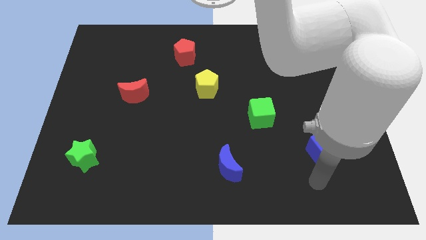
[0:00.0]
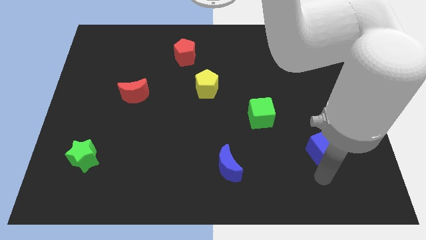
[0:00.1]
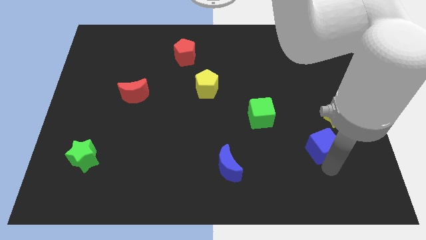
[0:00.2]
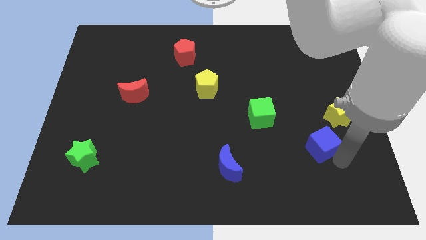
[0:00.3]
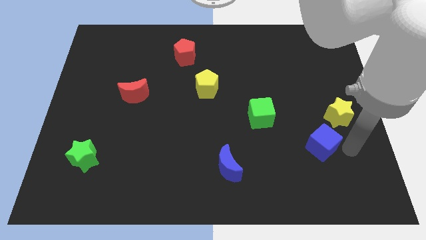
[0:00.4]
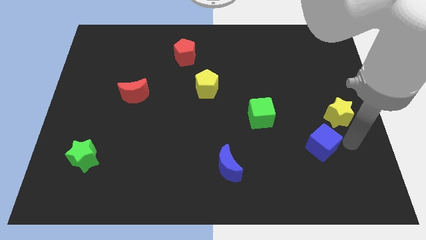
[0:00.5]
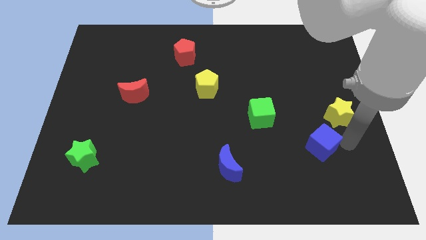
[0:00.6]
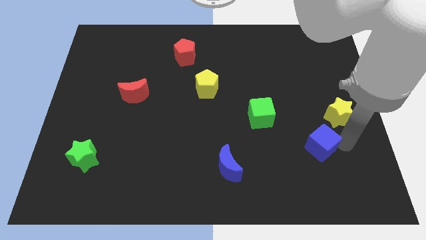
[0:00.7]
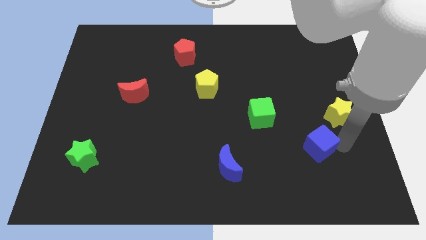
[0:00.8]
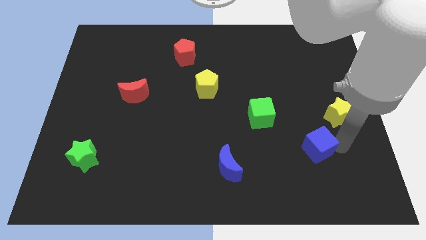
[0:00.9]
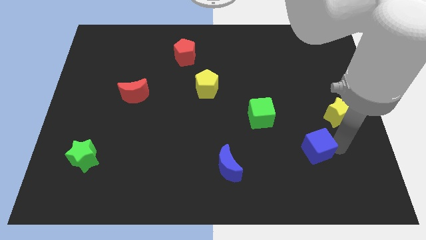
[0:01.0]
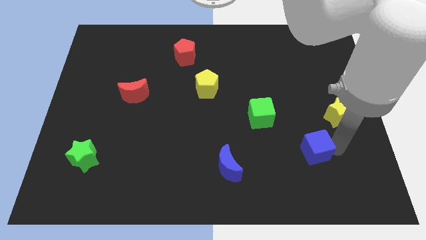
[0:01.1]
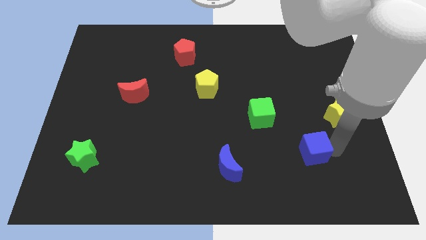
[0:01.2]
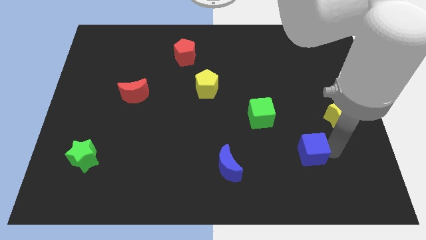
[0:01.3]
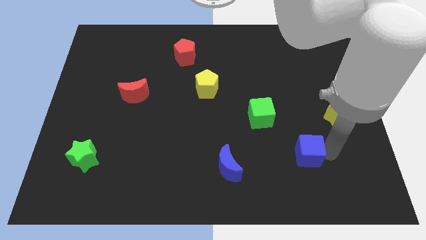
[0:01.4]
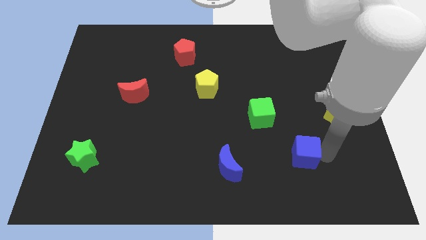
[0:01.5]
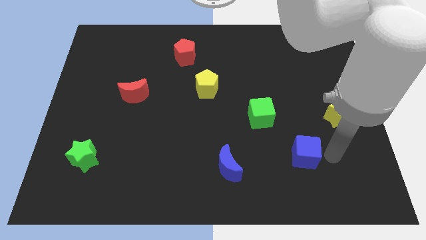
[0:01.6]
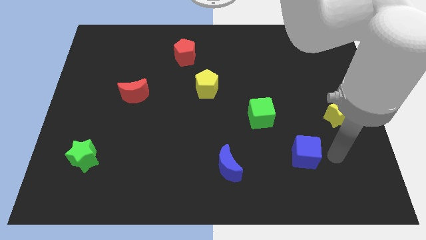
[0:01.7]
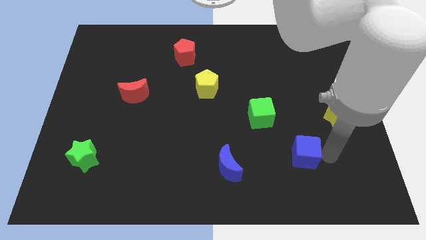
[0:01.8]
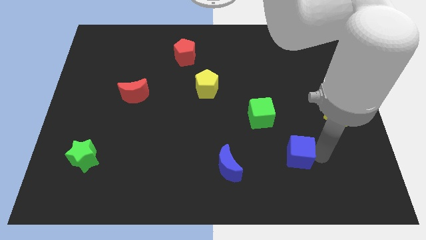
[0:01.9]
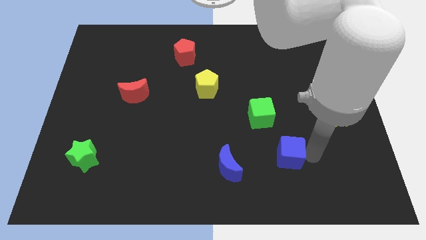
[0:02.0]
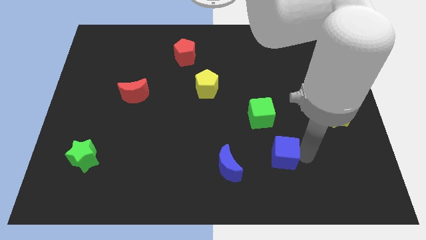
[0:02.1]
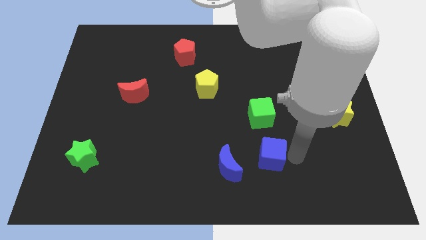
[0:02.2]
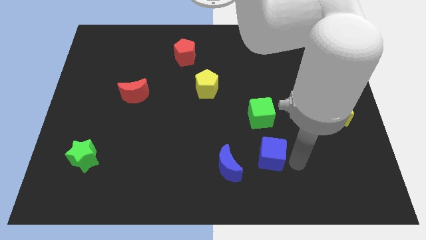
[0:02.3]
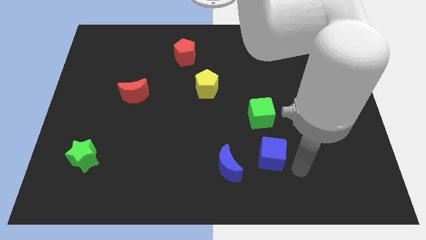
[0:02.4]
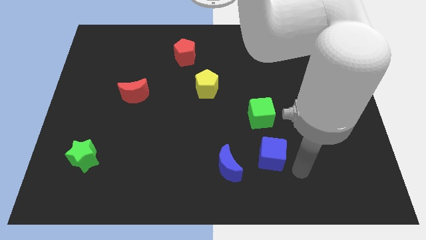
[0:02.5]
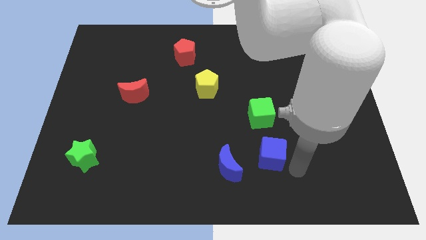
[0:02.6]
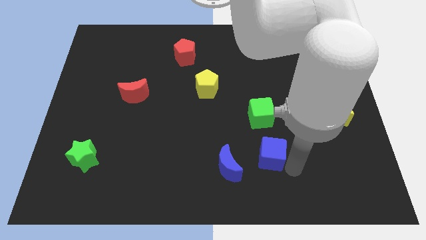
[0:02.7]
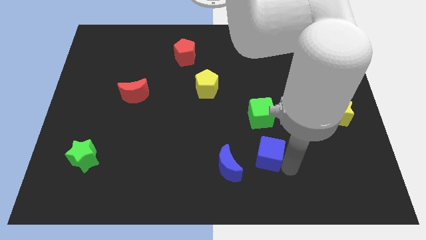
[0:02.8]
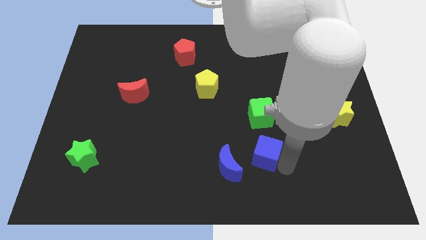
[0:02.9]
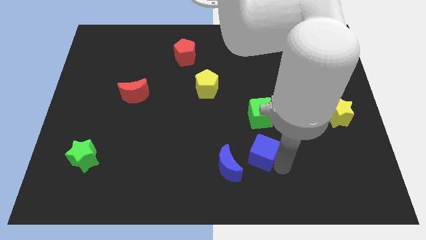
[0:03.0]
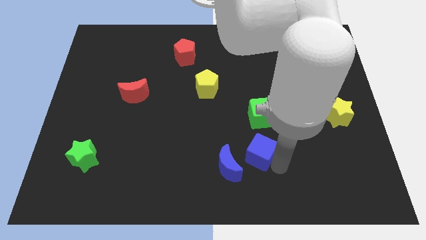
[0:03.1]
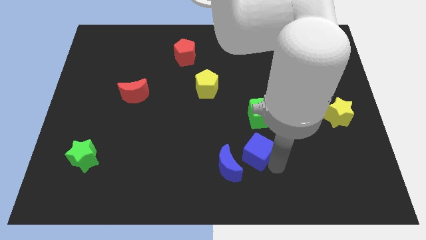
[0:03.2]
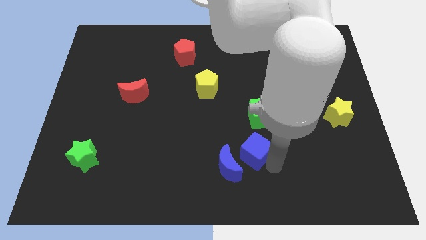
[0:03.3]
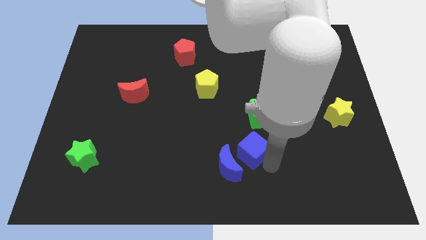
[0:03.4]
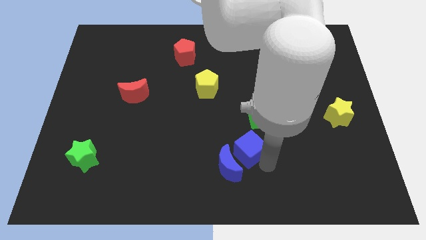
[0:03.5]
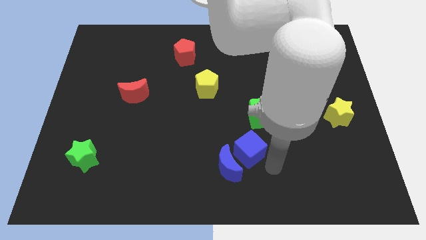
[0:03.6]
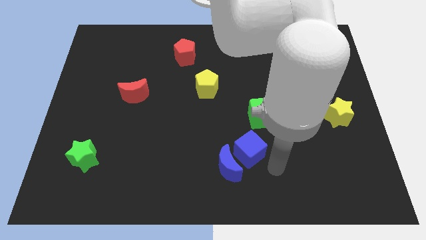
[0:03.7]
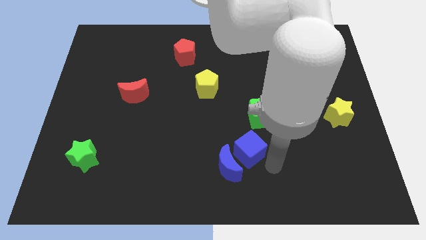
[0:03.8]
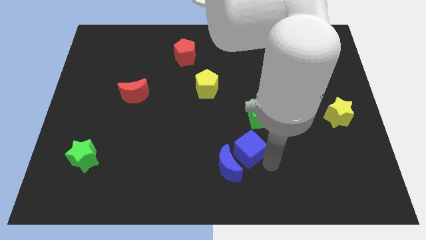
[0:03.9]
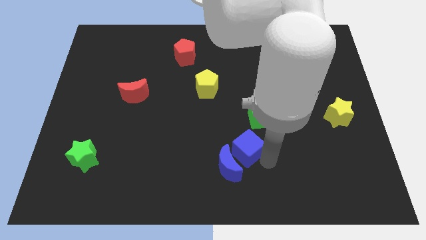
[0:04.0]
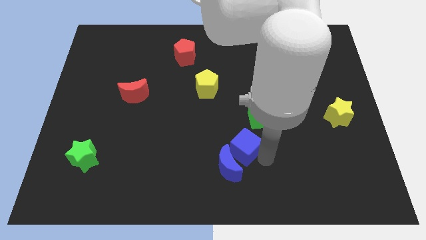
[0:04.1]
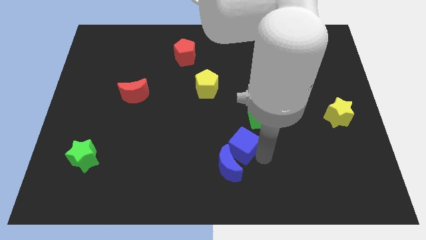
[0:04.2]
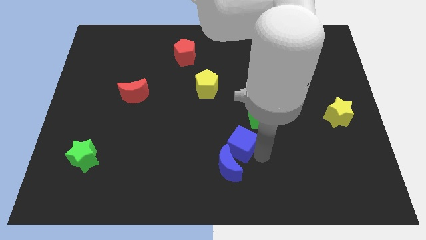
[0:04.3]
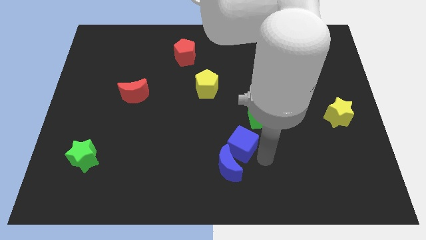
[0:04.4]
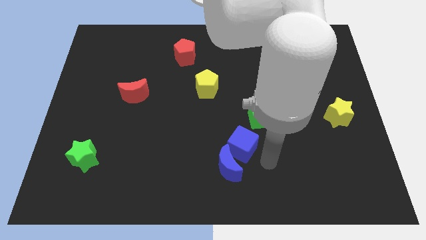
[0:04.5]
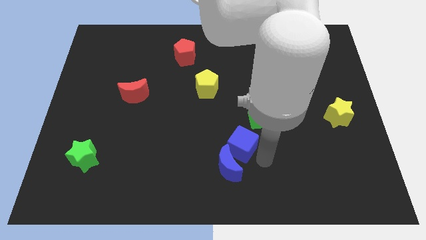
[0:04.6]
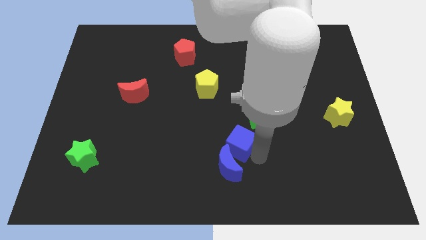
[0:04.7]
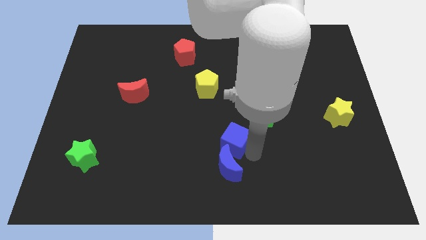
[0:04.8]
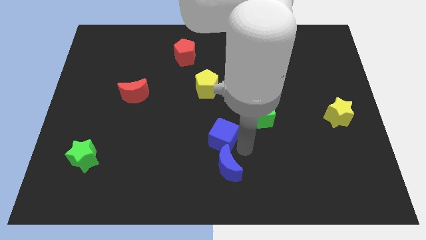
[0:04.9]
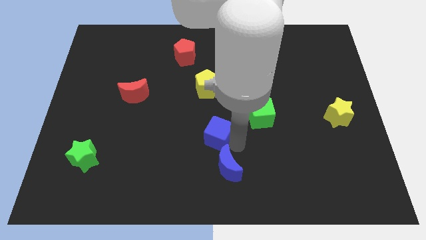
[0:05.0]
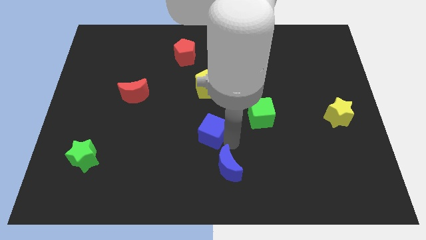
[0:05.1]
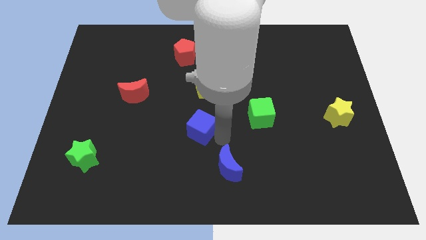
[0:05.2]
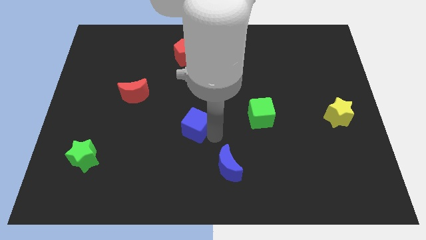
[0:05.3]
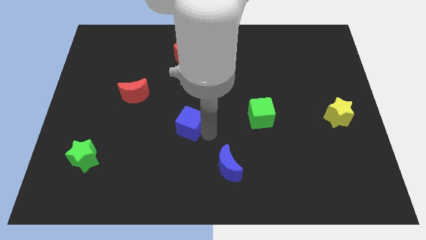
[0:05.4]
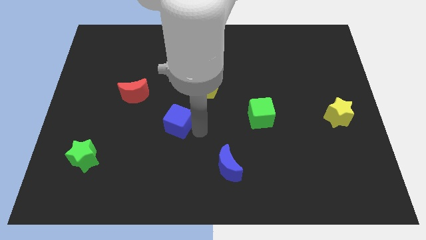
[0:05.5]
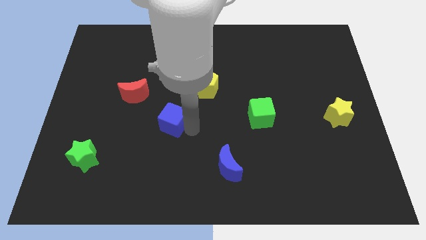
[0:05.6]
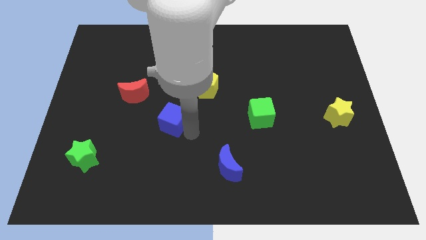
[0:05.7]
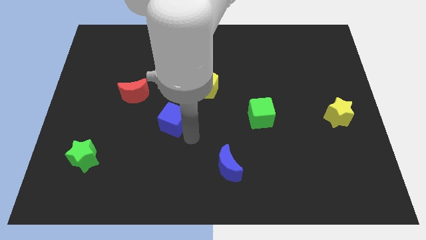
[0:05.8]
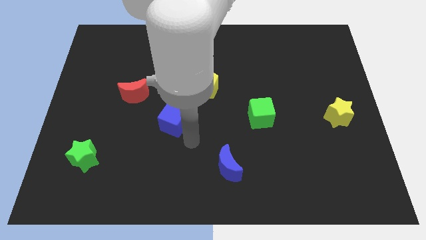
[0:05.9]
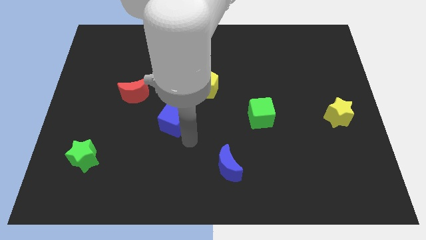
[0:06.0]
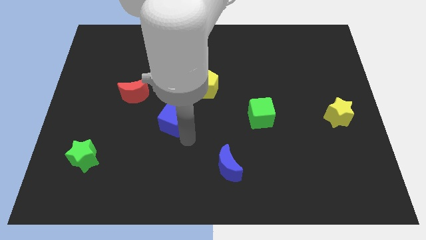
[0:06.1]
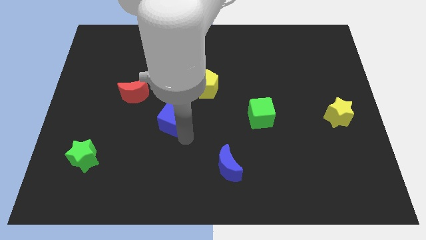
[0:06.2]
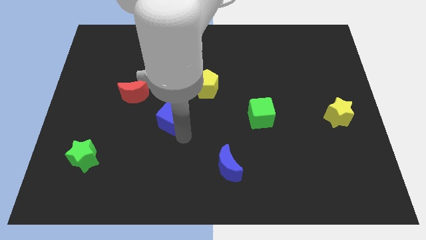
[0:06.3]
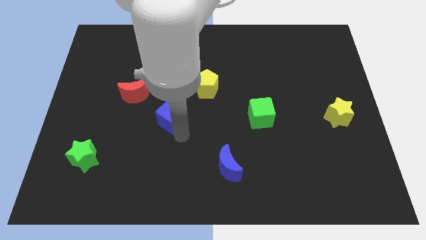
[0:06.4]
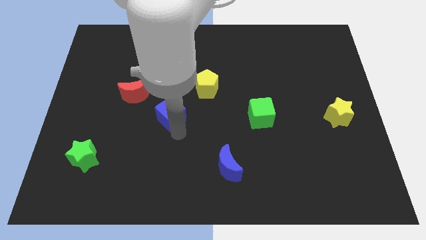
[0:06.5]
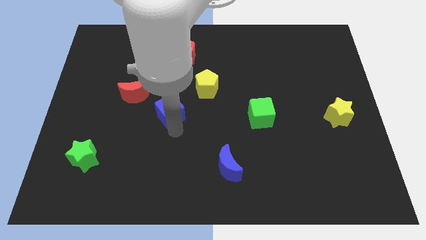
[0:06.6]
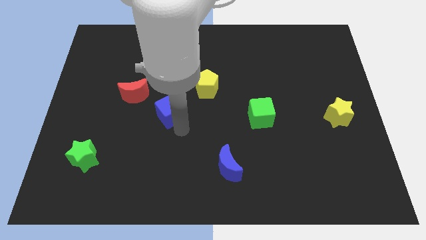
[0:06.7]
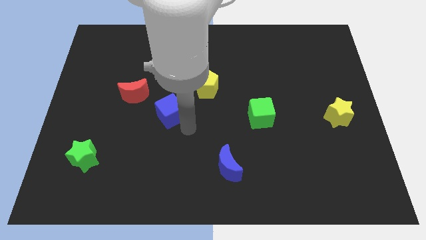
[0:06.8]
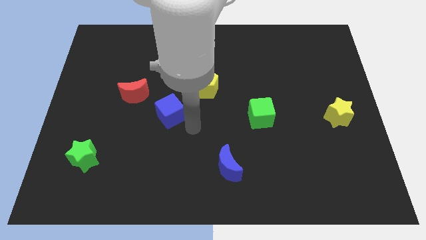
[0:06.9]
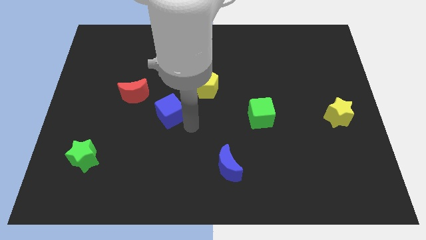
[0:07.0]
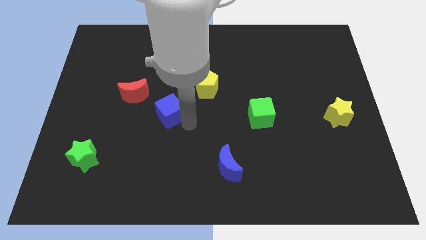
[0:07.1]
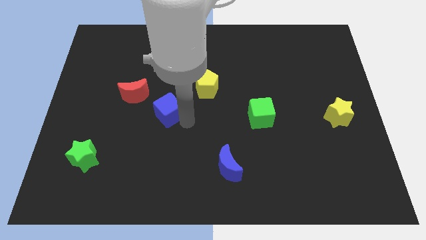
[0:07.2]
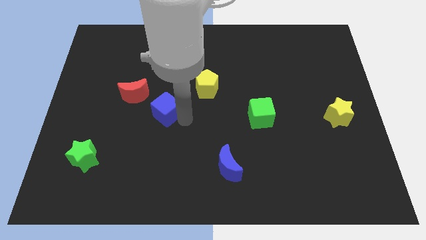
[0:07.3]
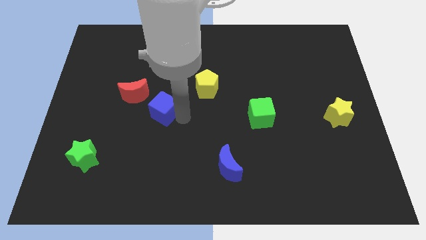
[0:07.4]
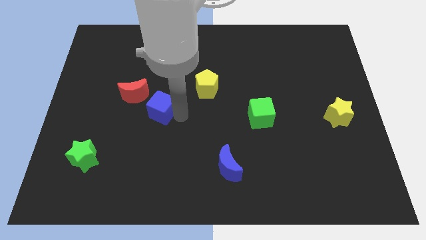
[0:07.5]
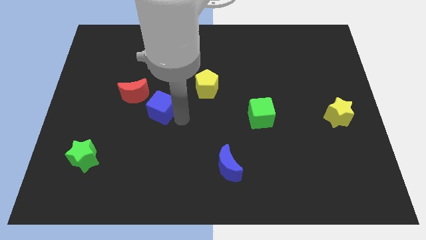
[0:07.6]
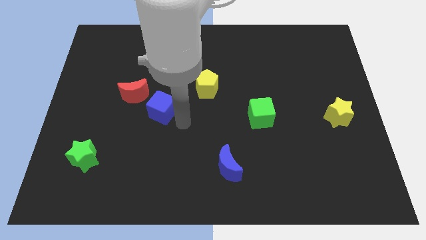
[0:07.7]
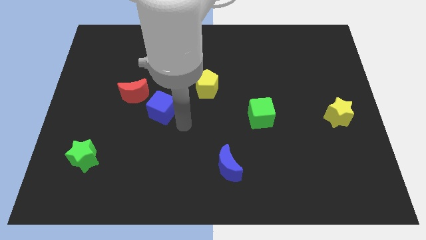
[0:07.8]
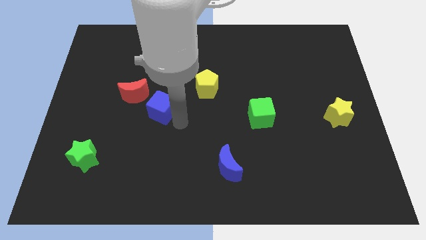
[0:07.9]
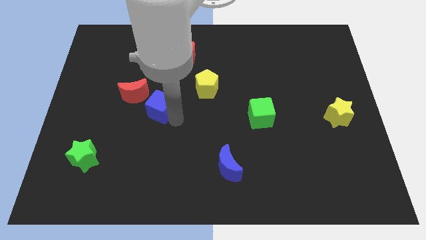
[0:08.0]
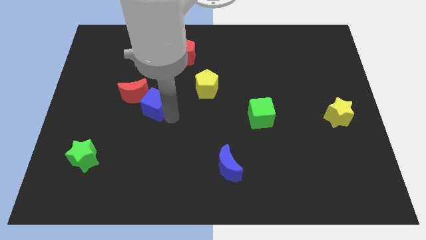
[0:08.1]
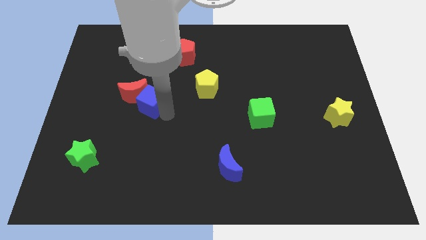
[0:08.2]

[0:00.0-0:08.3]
put the blue cube to the red moon
